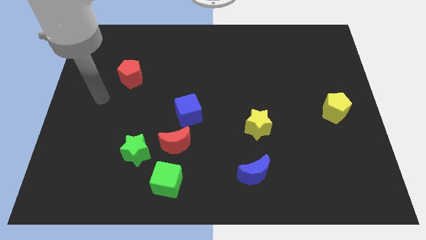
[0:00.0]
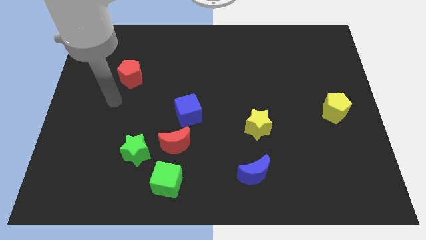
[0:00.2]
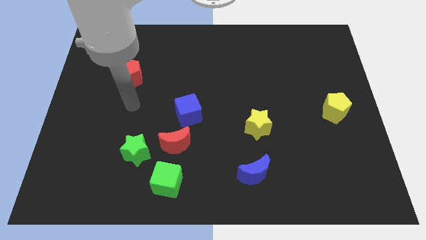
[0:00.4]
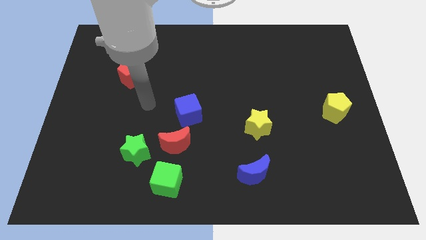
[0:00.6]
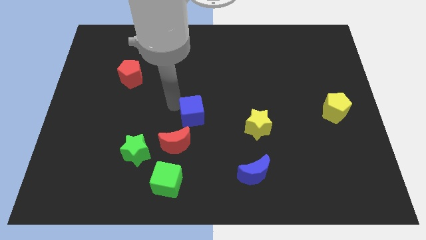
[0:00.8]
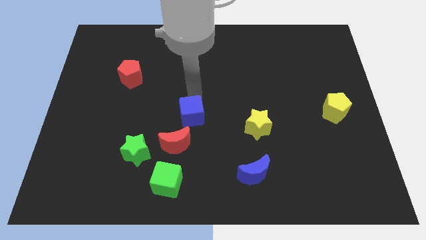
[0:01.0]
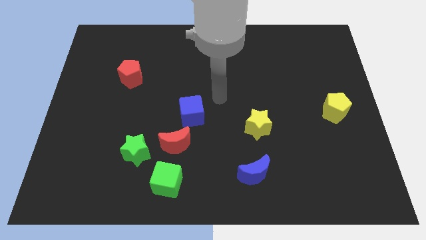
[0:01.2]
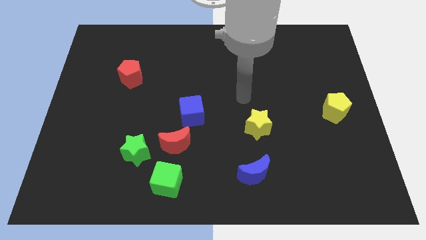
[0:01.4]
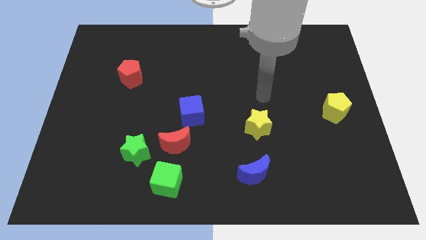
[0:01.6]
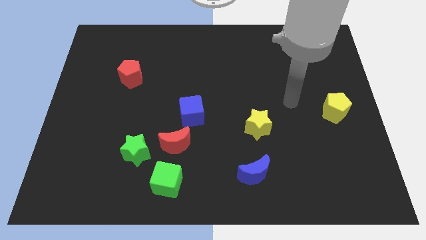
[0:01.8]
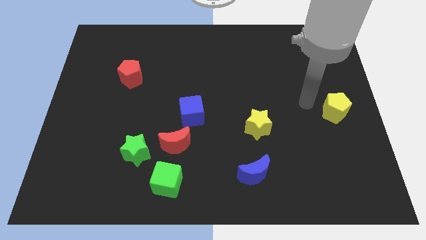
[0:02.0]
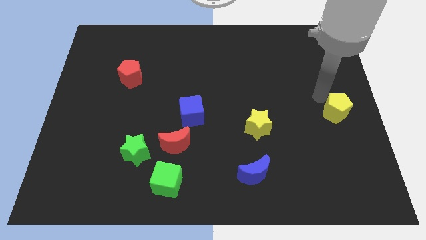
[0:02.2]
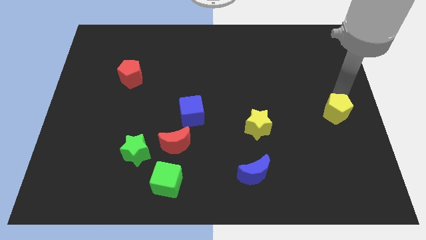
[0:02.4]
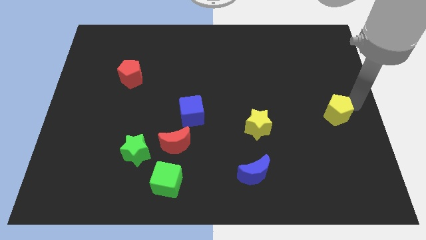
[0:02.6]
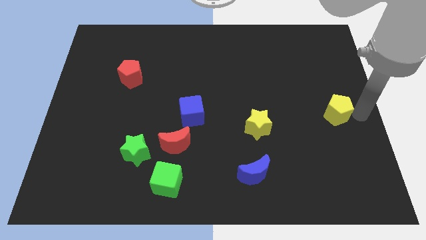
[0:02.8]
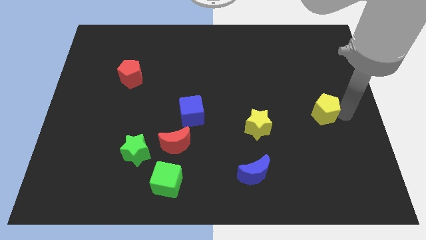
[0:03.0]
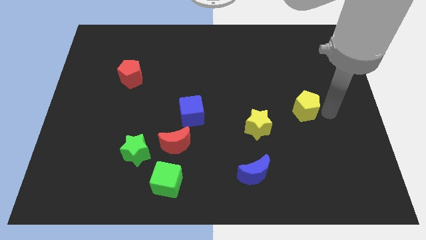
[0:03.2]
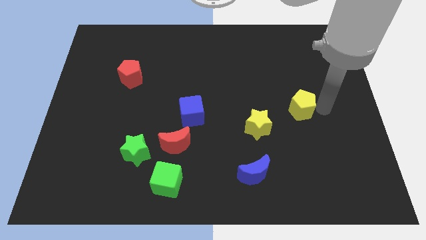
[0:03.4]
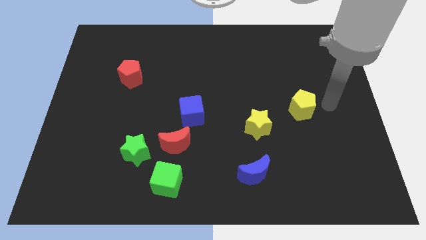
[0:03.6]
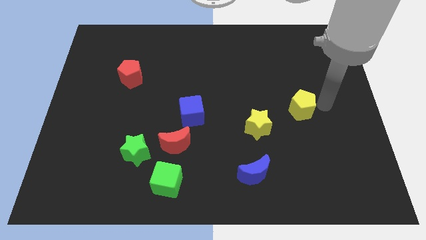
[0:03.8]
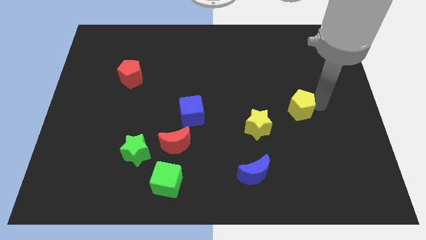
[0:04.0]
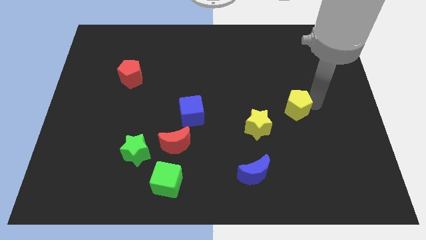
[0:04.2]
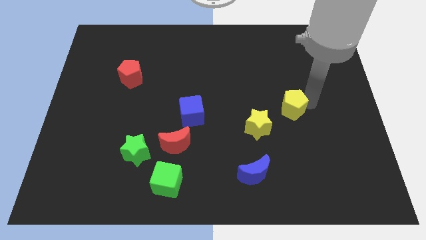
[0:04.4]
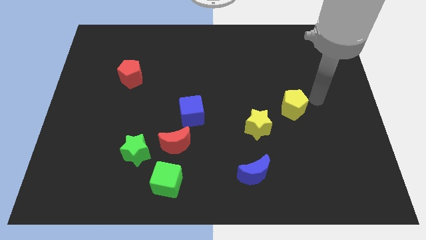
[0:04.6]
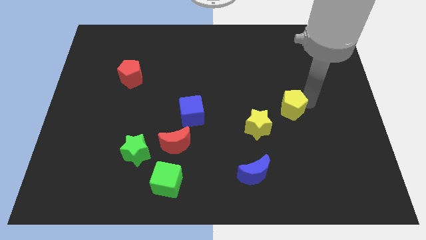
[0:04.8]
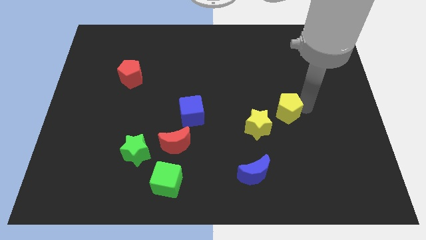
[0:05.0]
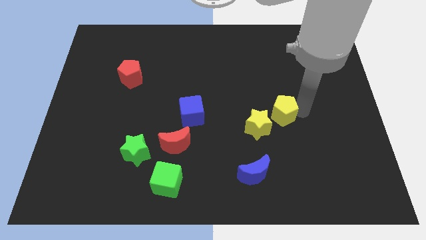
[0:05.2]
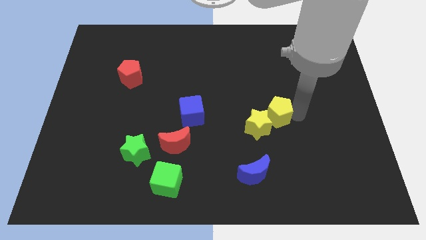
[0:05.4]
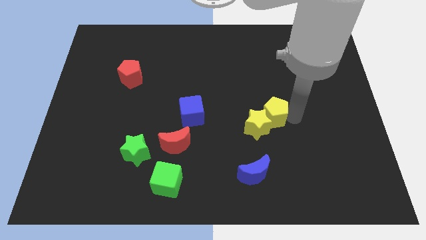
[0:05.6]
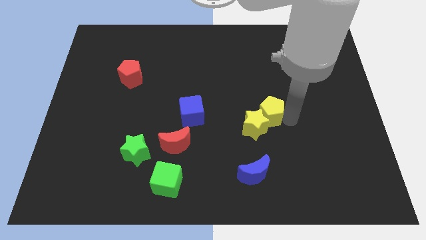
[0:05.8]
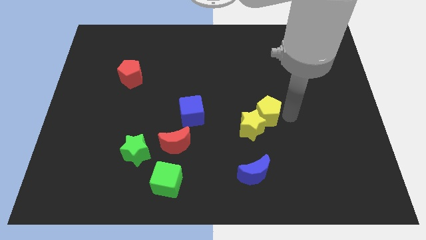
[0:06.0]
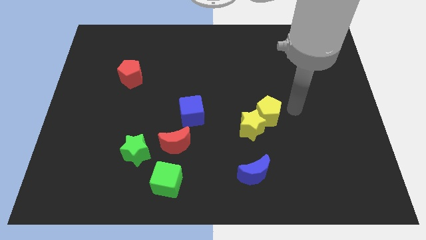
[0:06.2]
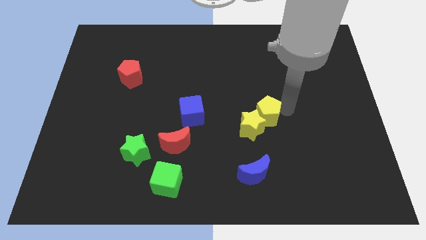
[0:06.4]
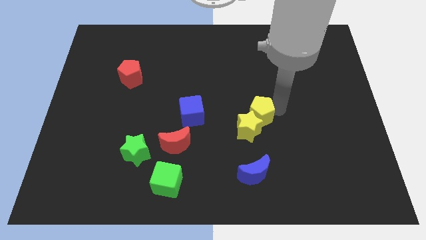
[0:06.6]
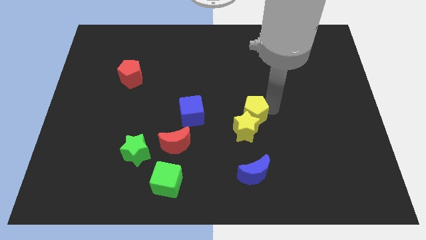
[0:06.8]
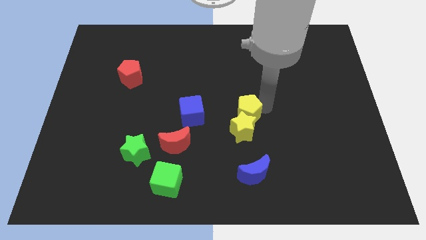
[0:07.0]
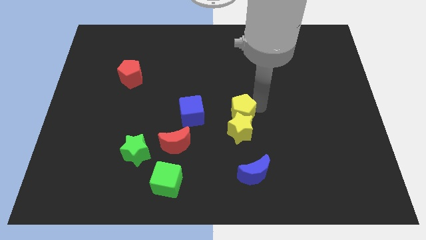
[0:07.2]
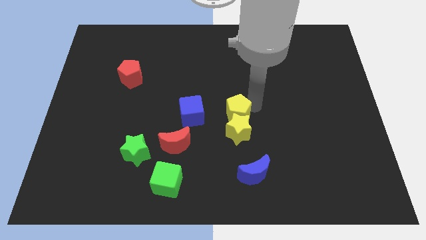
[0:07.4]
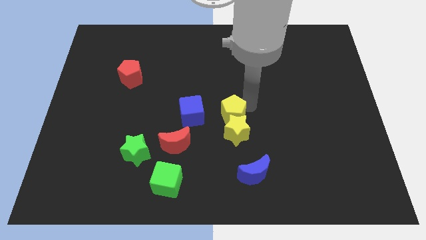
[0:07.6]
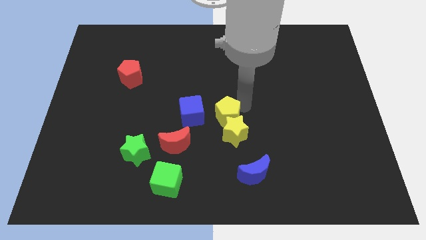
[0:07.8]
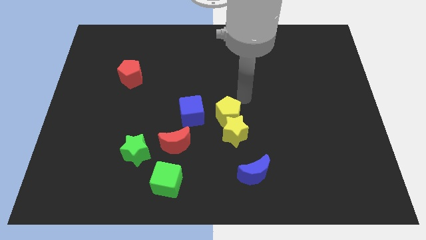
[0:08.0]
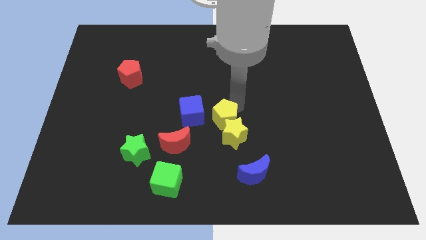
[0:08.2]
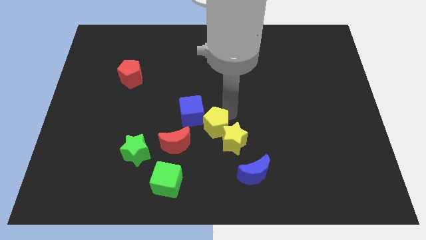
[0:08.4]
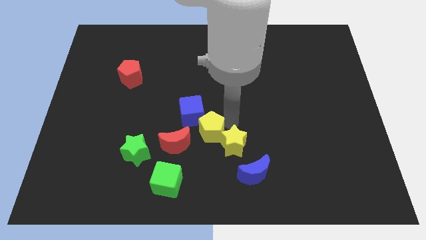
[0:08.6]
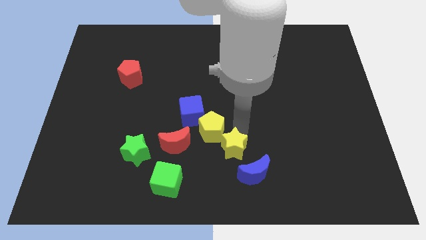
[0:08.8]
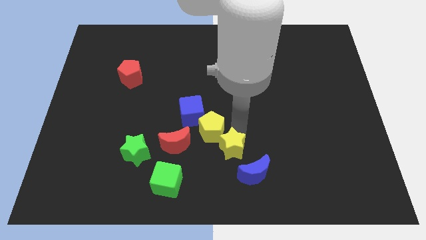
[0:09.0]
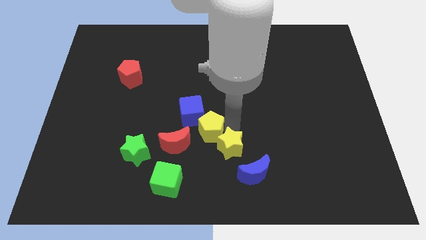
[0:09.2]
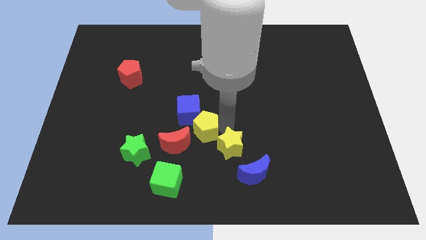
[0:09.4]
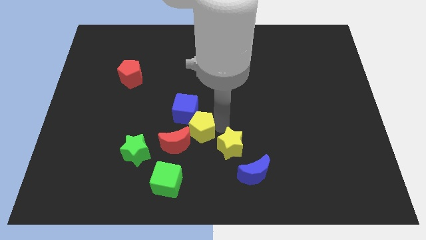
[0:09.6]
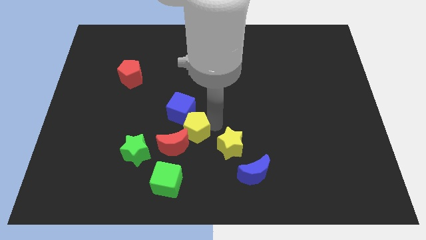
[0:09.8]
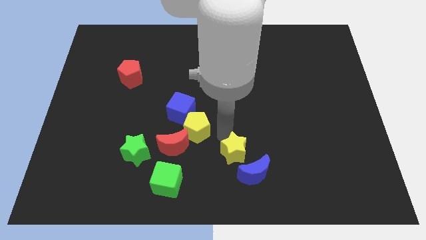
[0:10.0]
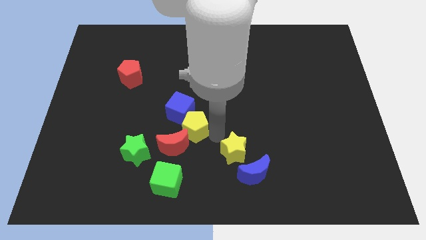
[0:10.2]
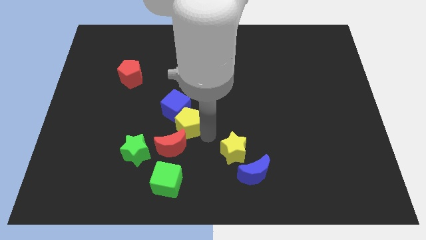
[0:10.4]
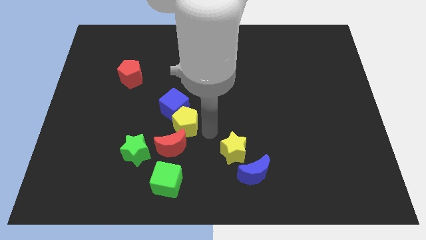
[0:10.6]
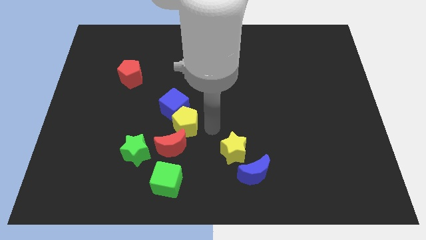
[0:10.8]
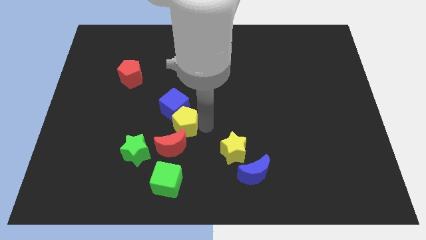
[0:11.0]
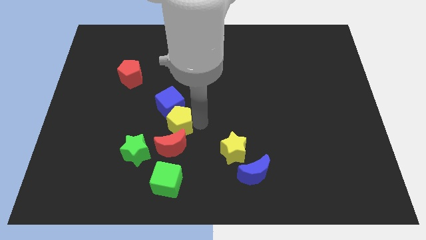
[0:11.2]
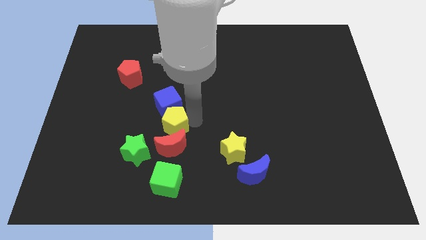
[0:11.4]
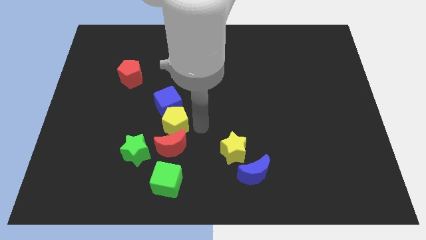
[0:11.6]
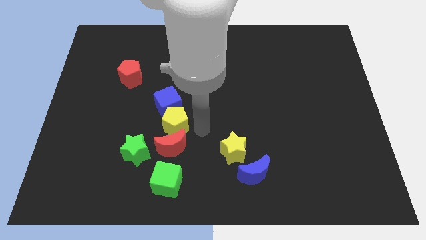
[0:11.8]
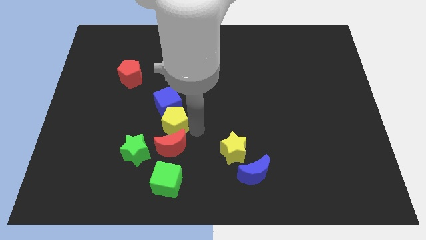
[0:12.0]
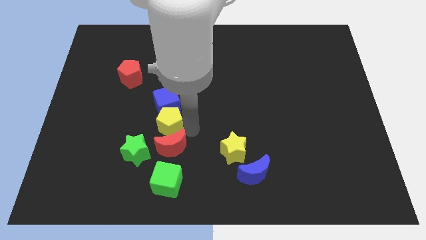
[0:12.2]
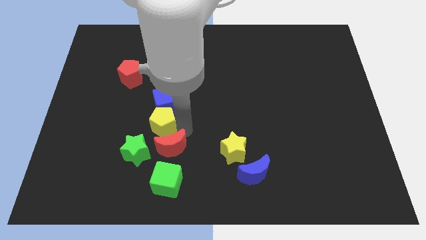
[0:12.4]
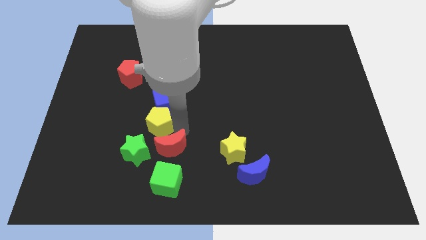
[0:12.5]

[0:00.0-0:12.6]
move the yellow pentagon above the green star
